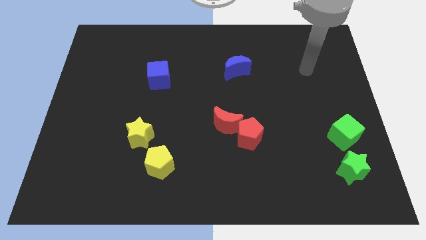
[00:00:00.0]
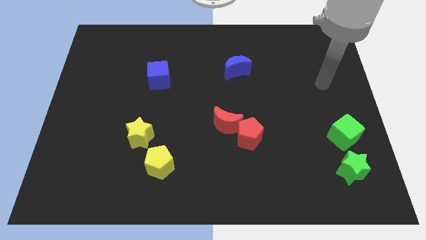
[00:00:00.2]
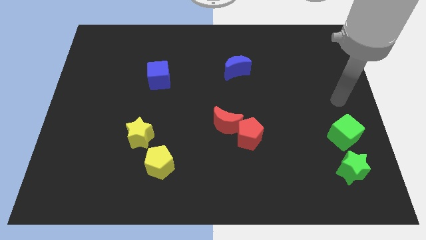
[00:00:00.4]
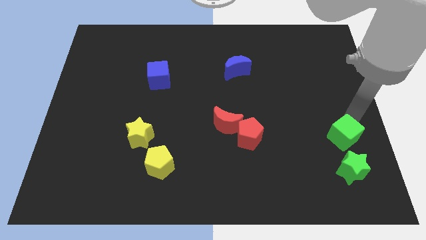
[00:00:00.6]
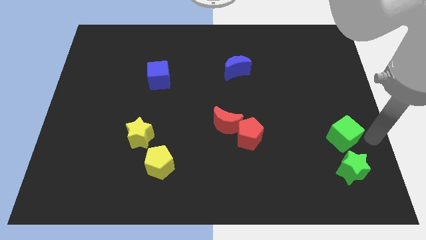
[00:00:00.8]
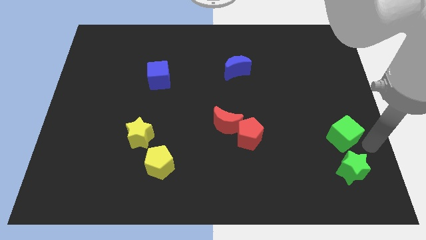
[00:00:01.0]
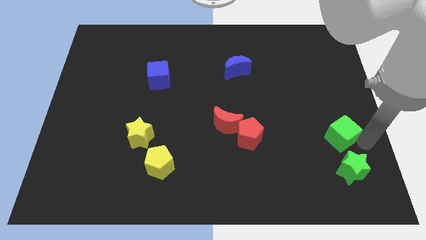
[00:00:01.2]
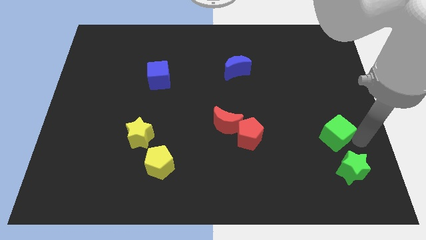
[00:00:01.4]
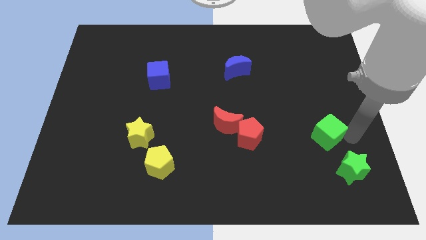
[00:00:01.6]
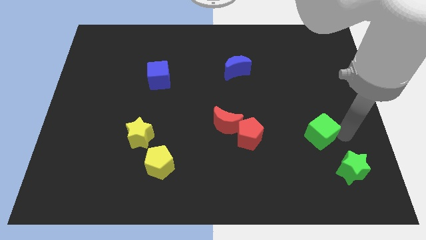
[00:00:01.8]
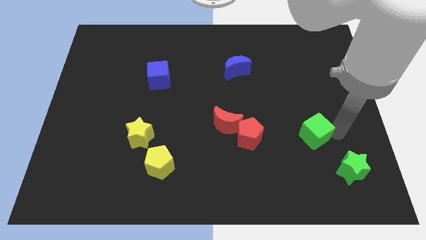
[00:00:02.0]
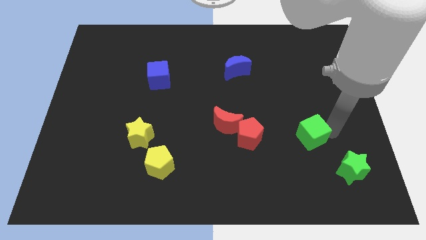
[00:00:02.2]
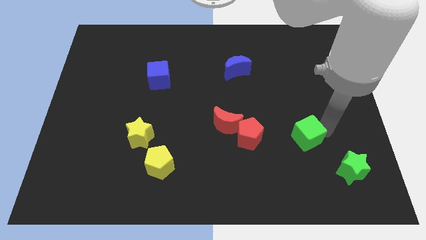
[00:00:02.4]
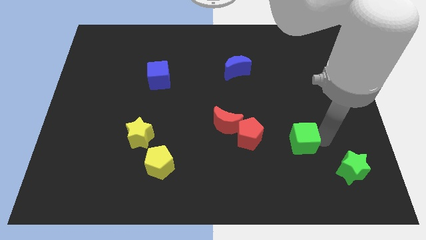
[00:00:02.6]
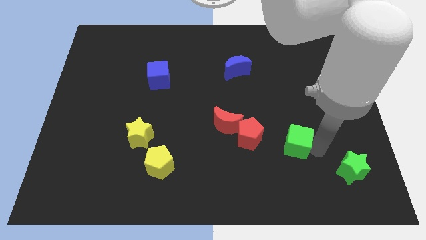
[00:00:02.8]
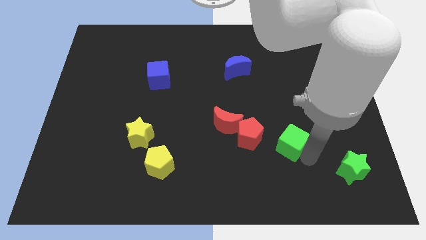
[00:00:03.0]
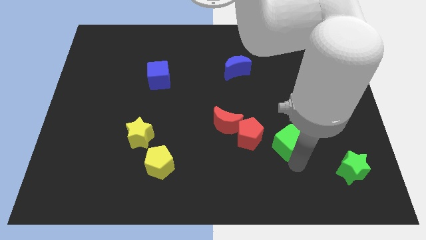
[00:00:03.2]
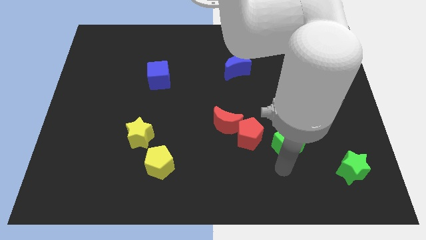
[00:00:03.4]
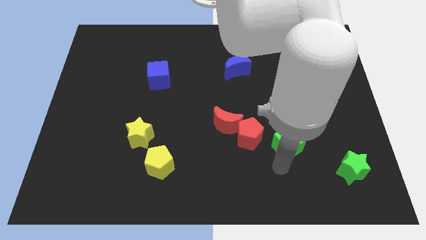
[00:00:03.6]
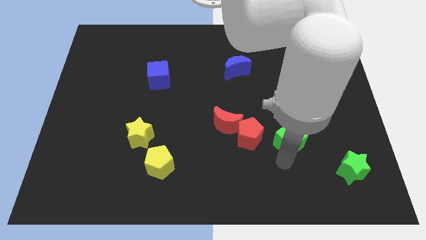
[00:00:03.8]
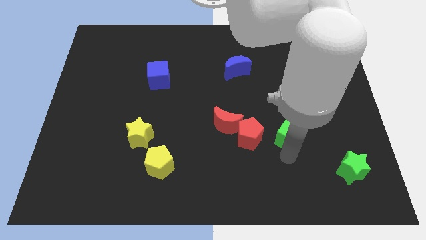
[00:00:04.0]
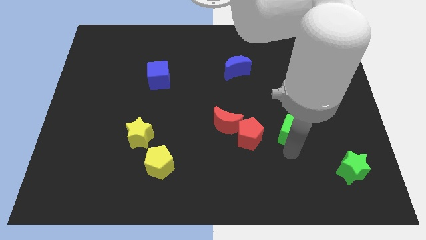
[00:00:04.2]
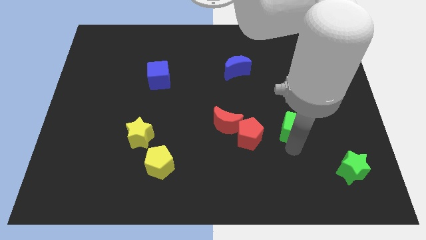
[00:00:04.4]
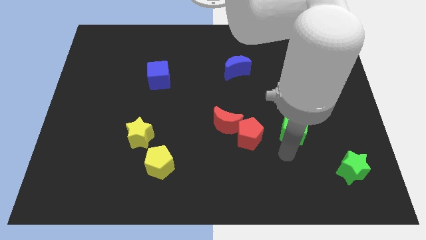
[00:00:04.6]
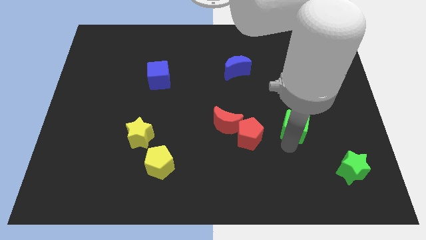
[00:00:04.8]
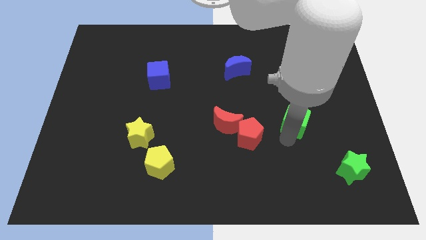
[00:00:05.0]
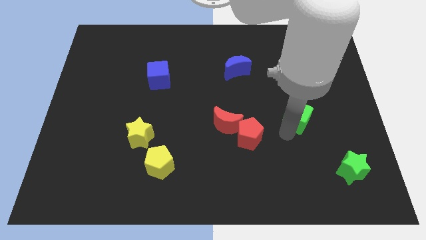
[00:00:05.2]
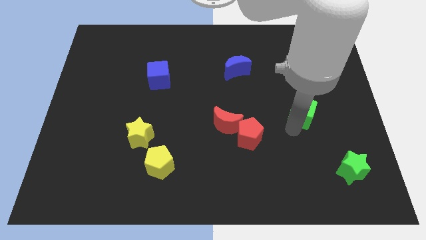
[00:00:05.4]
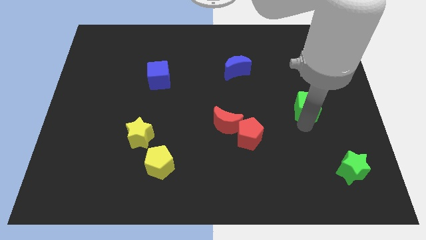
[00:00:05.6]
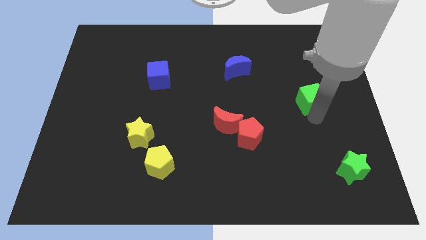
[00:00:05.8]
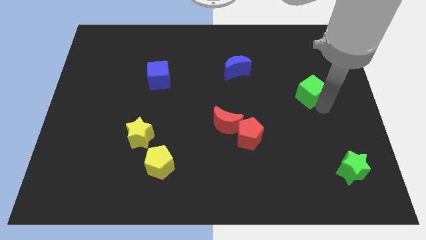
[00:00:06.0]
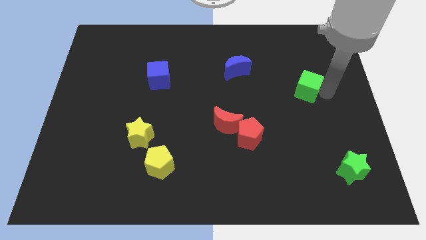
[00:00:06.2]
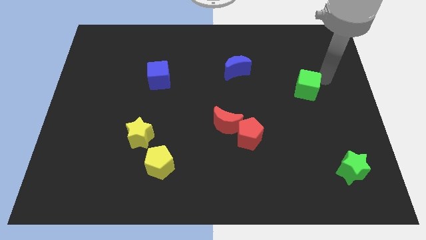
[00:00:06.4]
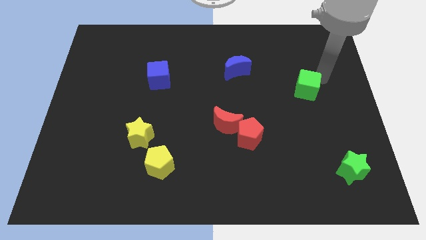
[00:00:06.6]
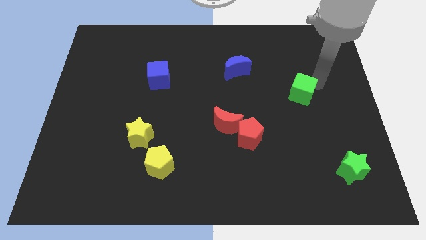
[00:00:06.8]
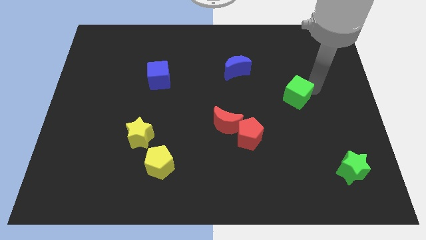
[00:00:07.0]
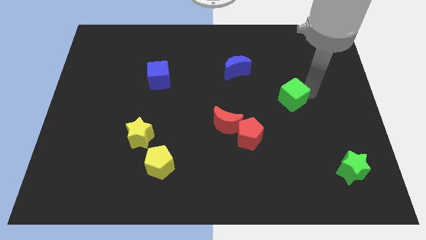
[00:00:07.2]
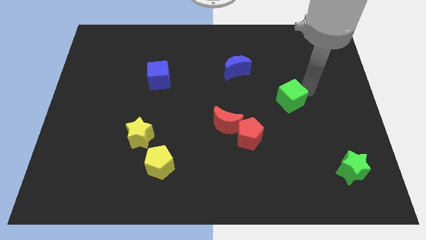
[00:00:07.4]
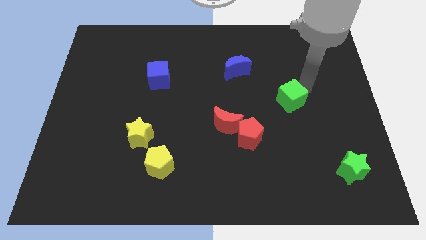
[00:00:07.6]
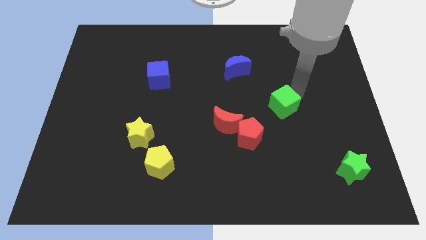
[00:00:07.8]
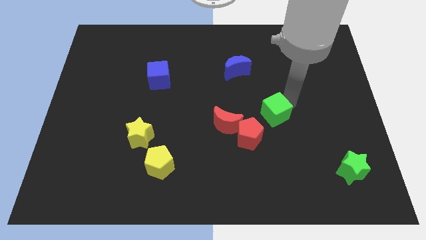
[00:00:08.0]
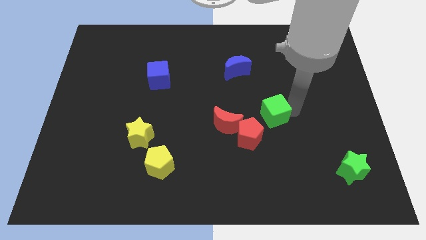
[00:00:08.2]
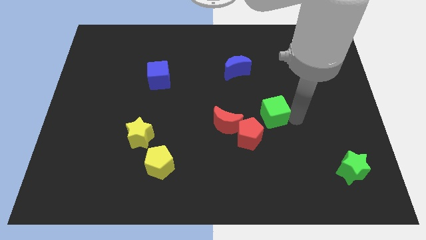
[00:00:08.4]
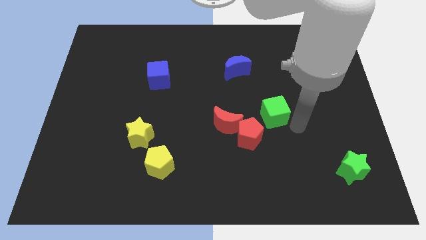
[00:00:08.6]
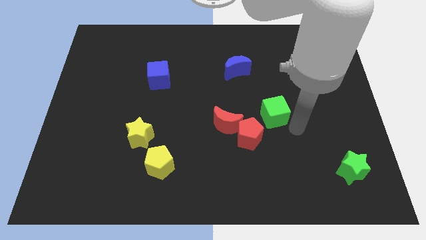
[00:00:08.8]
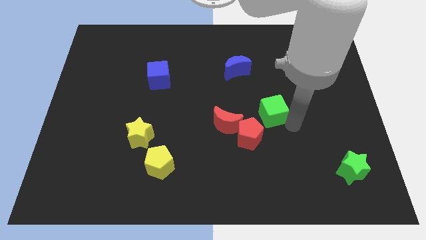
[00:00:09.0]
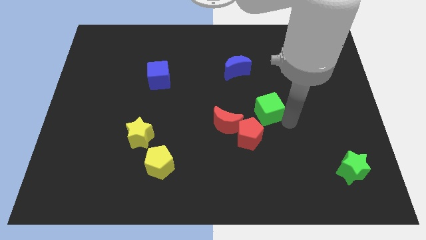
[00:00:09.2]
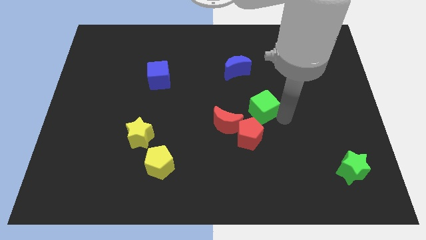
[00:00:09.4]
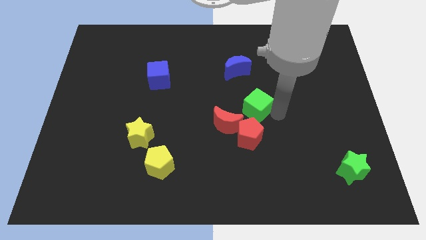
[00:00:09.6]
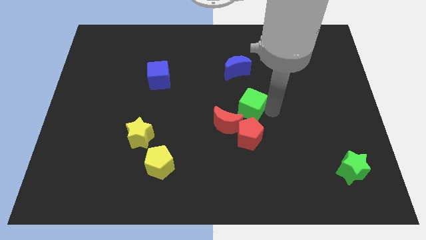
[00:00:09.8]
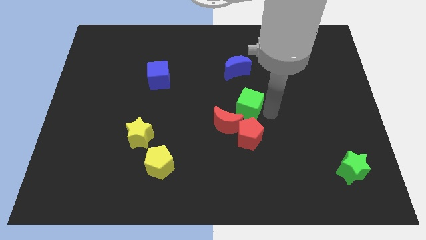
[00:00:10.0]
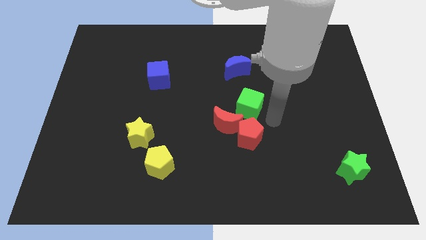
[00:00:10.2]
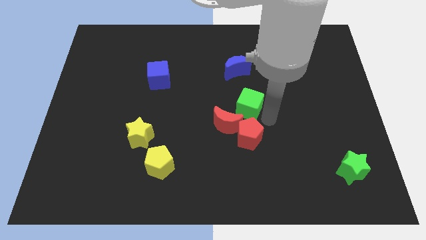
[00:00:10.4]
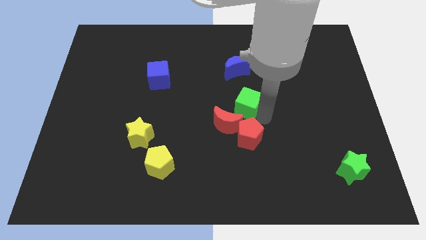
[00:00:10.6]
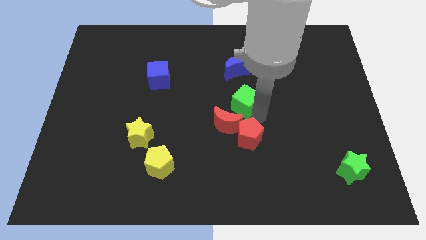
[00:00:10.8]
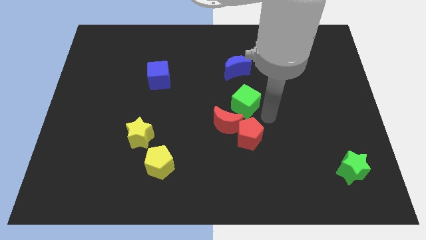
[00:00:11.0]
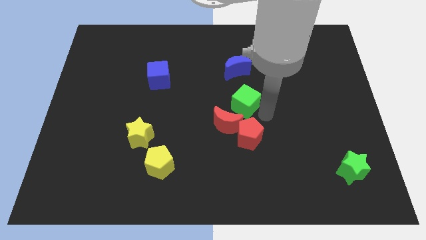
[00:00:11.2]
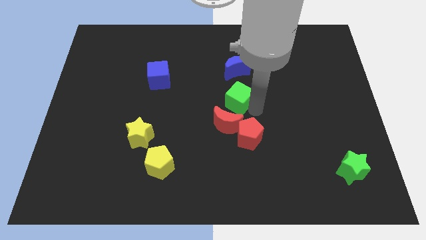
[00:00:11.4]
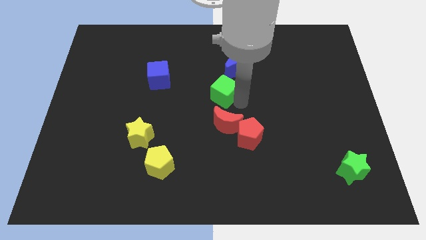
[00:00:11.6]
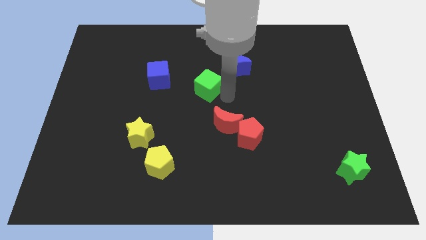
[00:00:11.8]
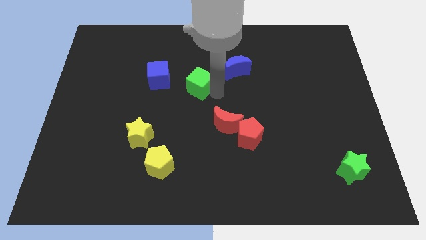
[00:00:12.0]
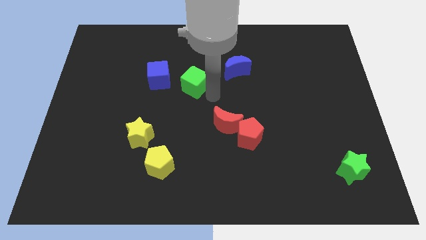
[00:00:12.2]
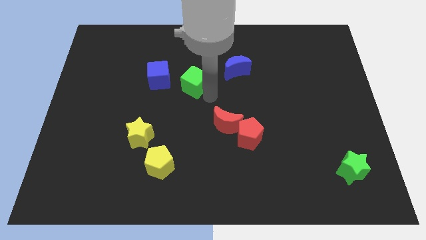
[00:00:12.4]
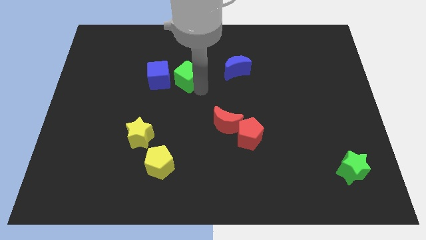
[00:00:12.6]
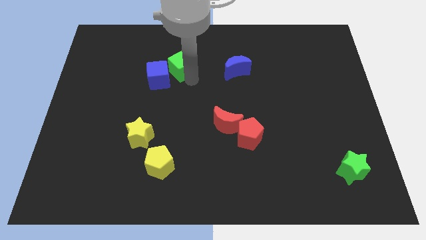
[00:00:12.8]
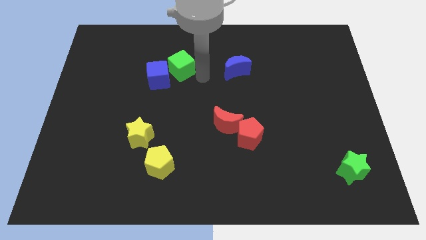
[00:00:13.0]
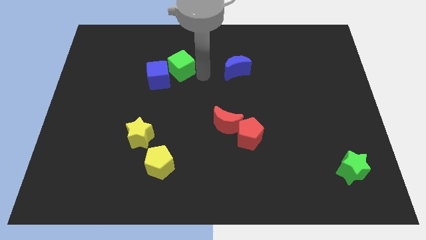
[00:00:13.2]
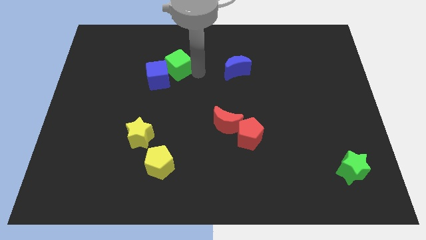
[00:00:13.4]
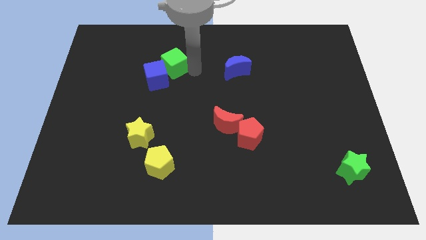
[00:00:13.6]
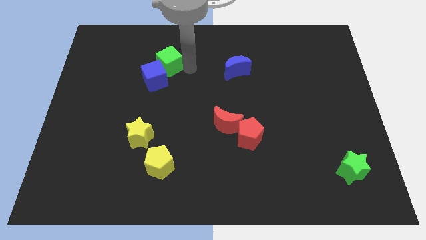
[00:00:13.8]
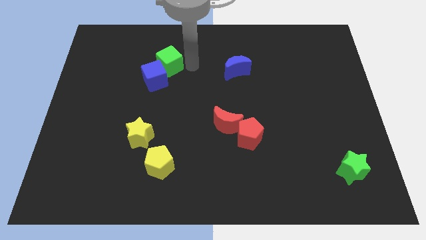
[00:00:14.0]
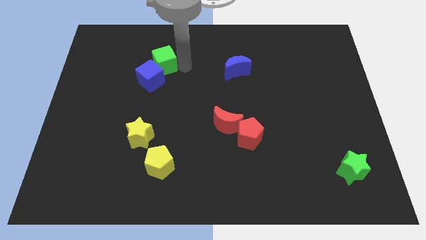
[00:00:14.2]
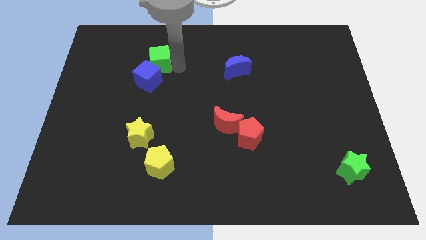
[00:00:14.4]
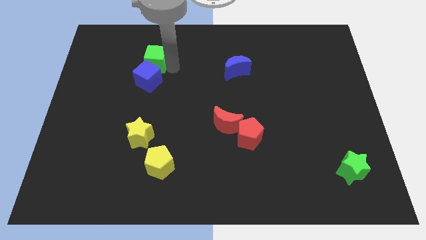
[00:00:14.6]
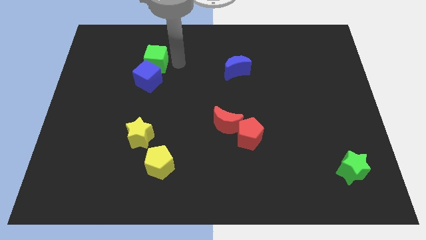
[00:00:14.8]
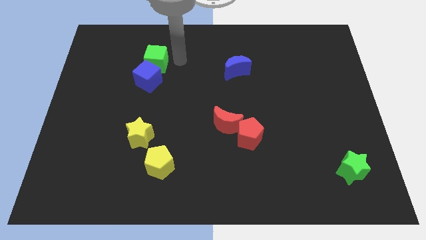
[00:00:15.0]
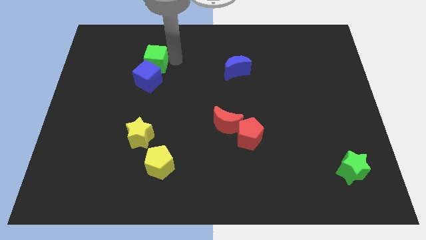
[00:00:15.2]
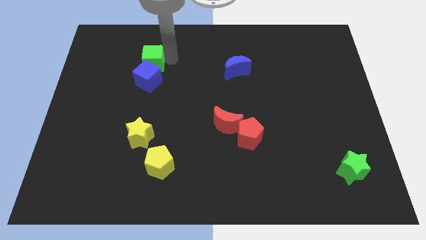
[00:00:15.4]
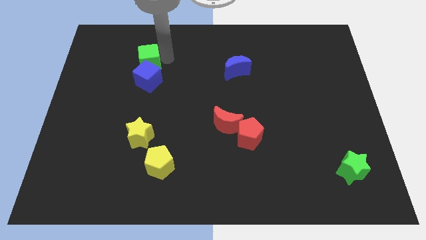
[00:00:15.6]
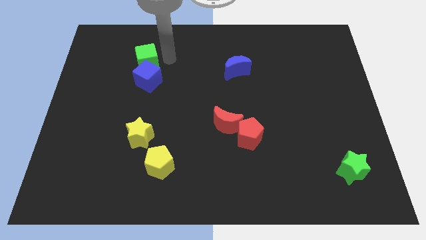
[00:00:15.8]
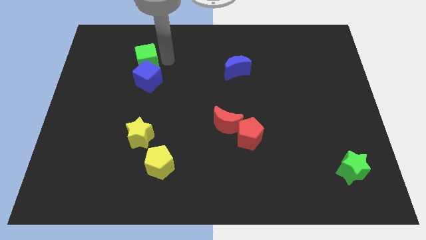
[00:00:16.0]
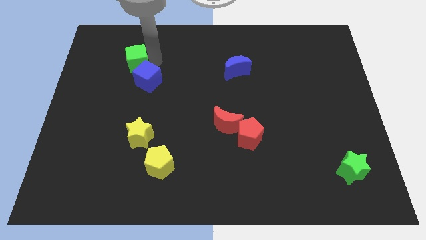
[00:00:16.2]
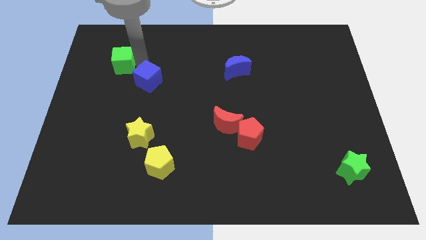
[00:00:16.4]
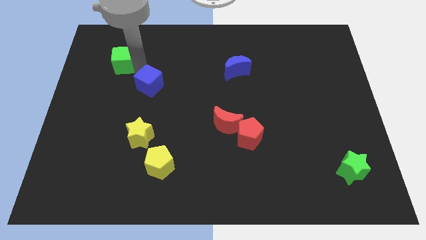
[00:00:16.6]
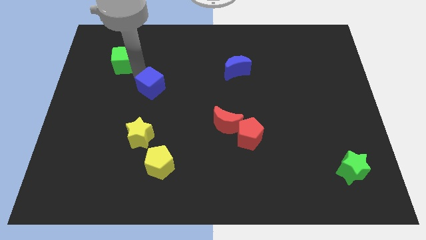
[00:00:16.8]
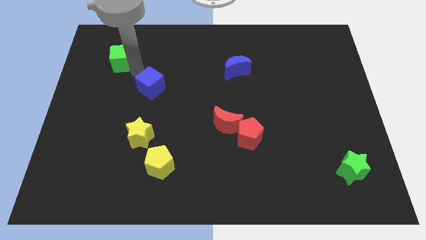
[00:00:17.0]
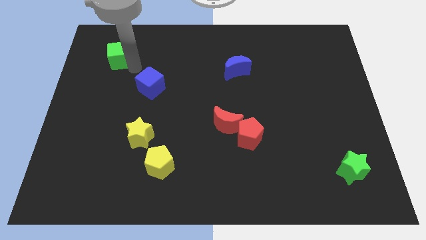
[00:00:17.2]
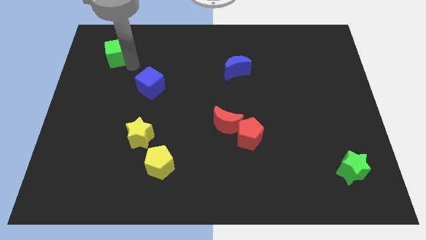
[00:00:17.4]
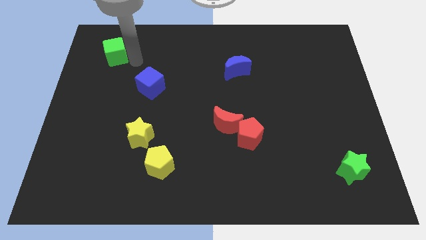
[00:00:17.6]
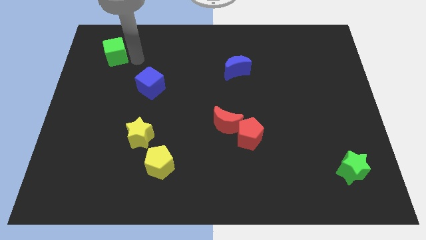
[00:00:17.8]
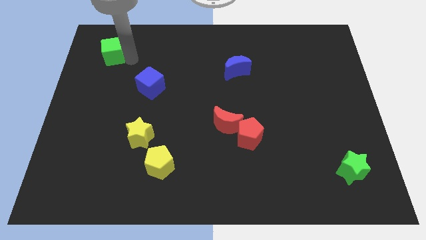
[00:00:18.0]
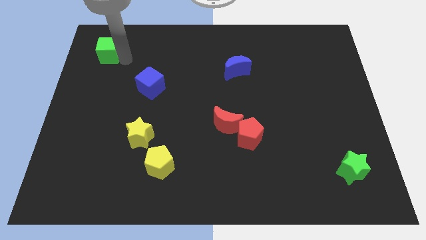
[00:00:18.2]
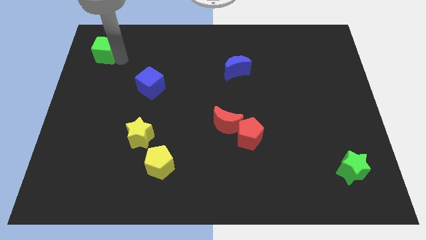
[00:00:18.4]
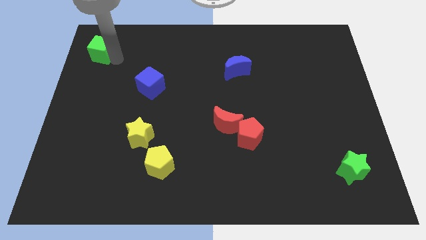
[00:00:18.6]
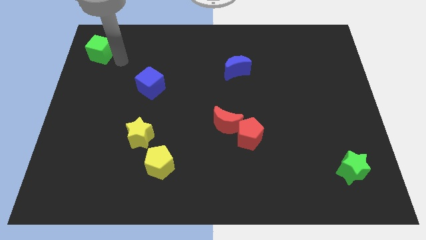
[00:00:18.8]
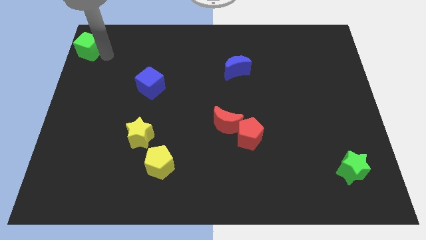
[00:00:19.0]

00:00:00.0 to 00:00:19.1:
push the green cube to the top left of the board
